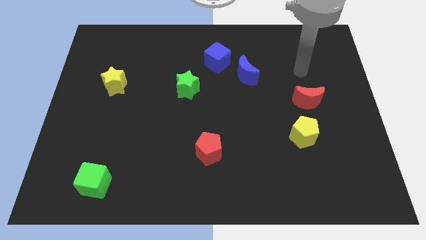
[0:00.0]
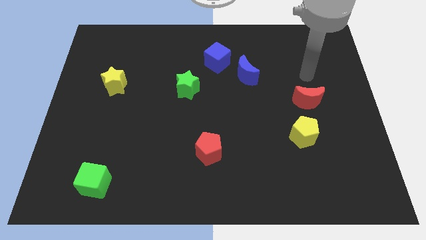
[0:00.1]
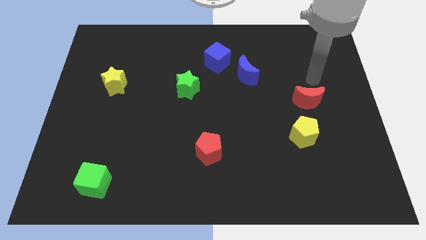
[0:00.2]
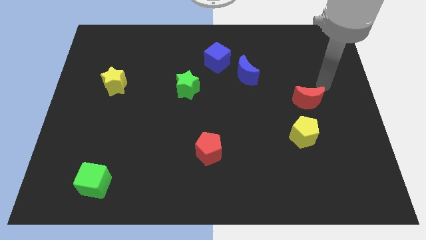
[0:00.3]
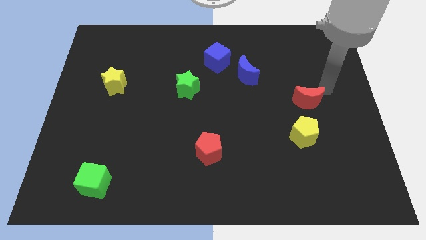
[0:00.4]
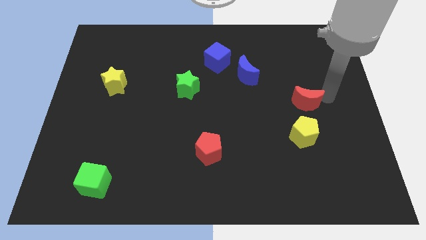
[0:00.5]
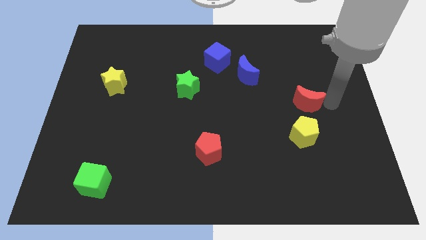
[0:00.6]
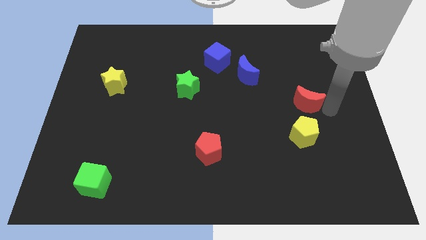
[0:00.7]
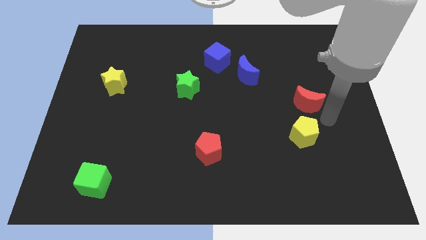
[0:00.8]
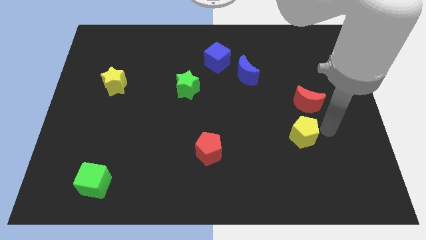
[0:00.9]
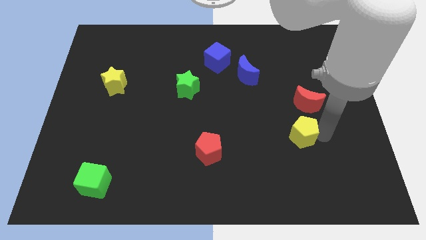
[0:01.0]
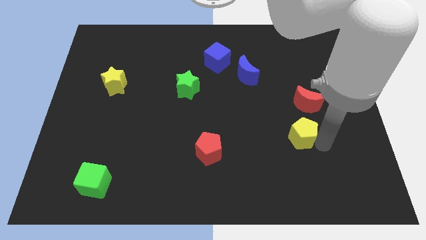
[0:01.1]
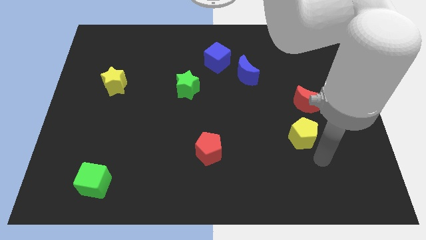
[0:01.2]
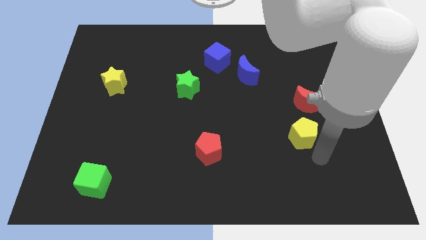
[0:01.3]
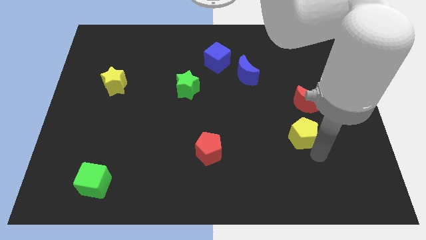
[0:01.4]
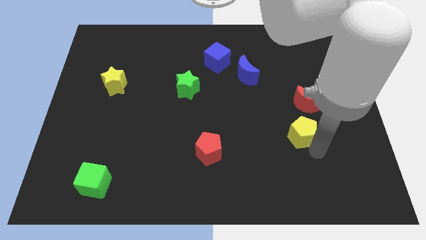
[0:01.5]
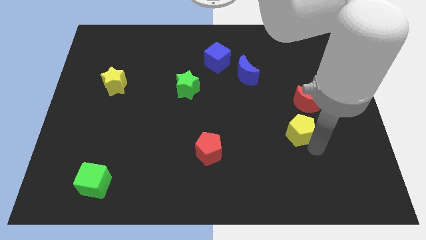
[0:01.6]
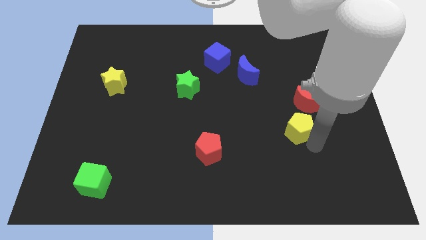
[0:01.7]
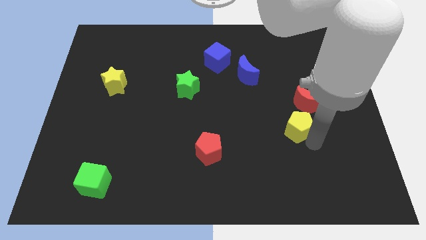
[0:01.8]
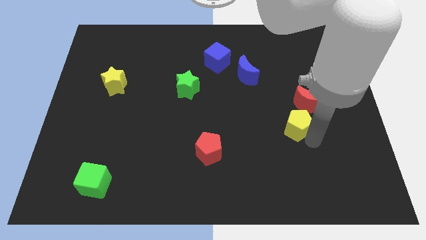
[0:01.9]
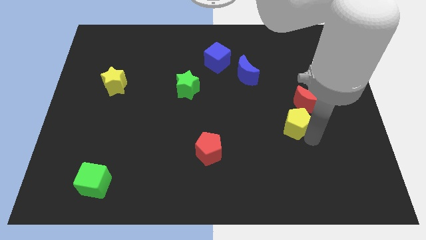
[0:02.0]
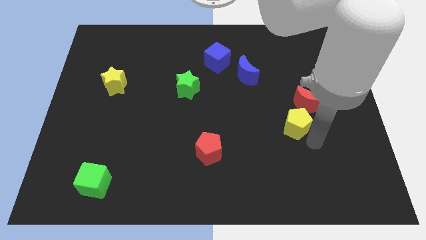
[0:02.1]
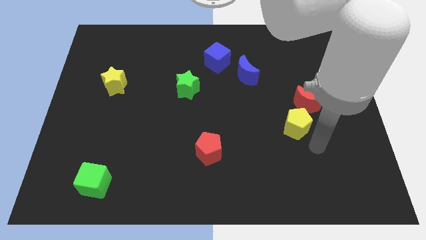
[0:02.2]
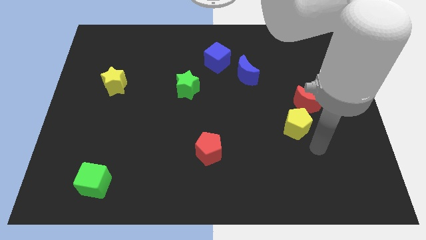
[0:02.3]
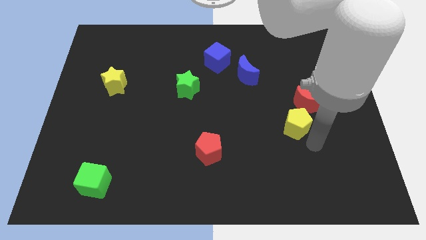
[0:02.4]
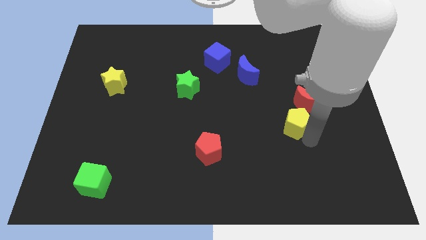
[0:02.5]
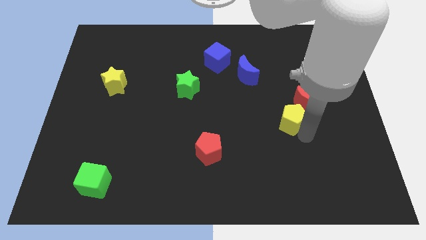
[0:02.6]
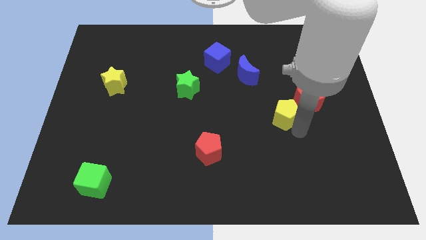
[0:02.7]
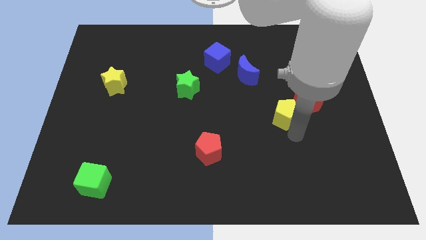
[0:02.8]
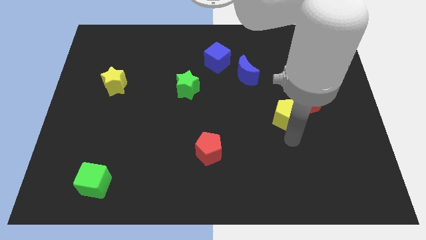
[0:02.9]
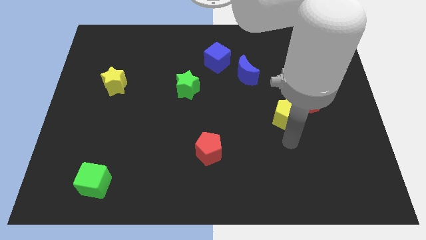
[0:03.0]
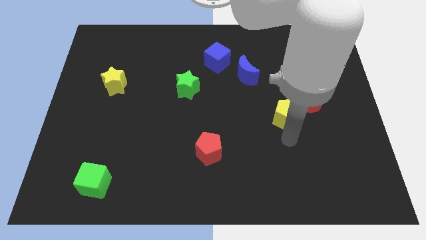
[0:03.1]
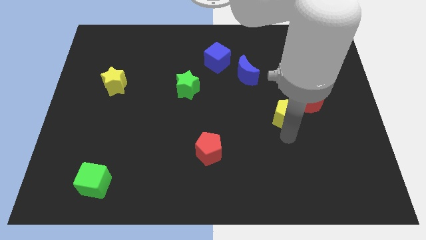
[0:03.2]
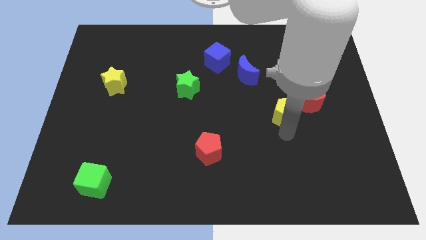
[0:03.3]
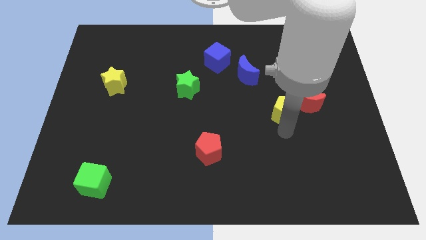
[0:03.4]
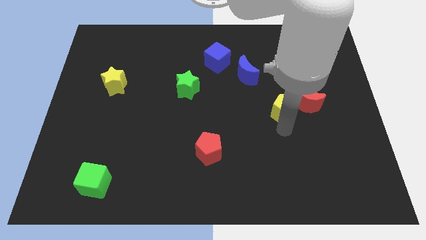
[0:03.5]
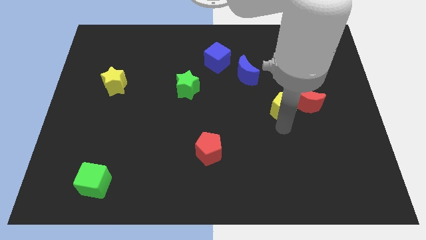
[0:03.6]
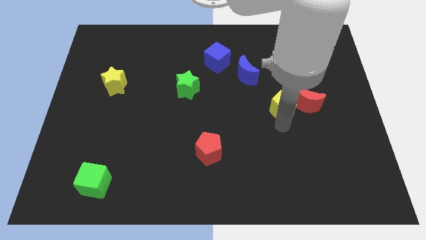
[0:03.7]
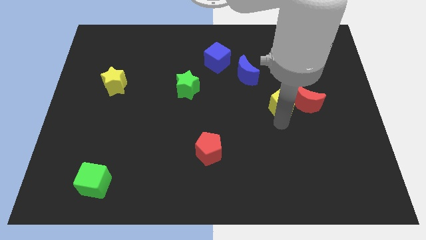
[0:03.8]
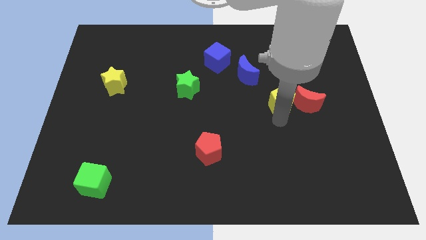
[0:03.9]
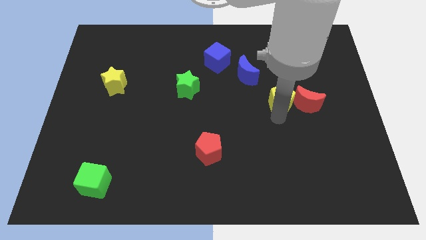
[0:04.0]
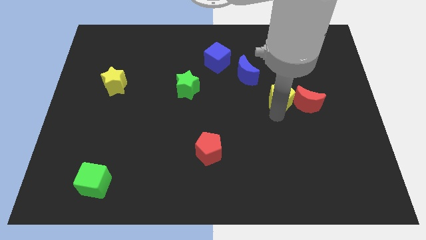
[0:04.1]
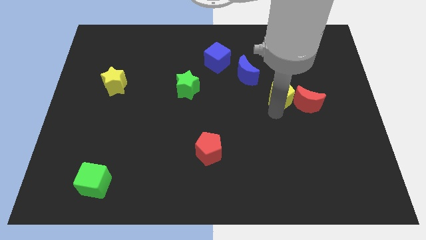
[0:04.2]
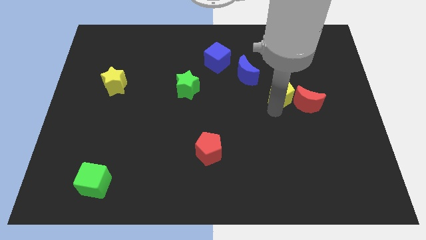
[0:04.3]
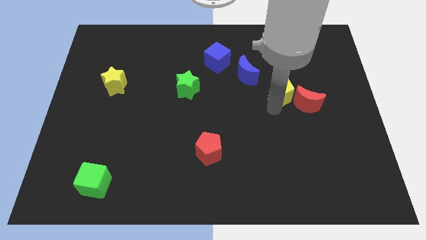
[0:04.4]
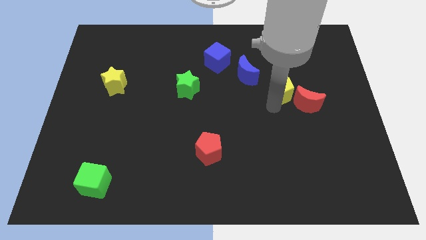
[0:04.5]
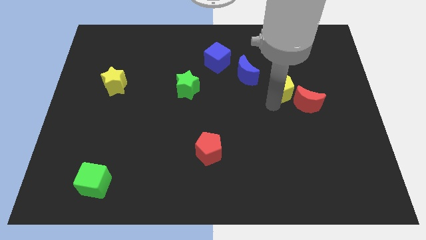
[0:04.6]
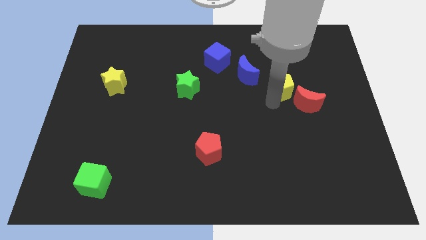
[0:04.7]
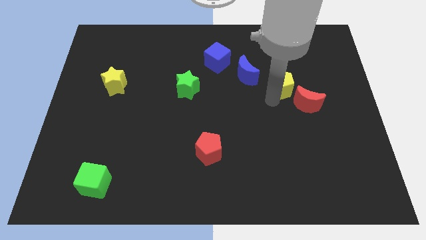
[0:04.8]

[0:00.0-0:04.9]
move the yellow pentagon right of the blue moon

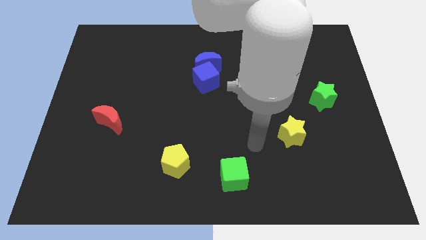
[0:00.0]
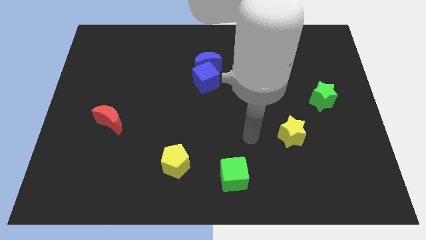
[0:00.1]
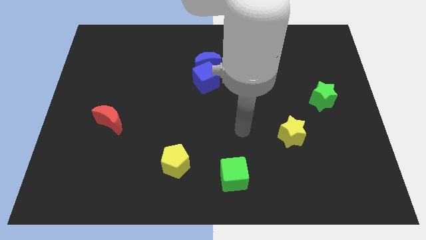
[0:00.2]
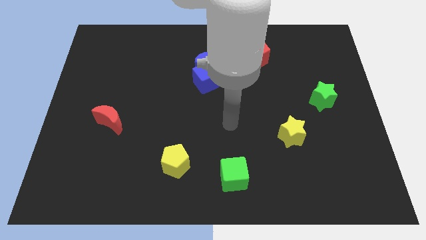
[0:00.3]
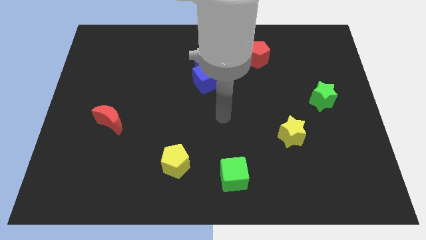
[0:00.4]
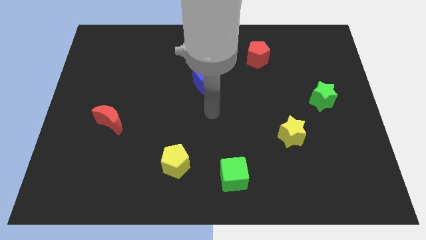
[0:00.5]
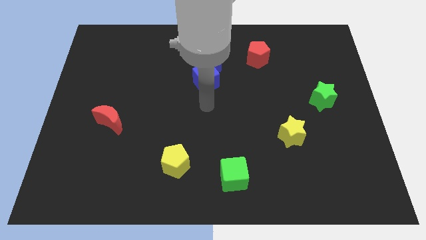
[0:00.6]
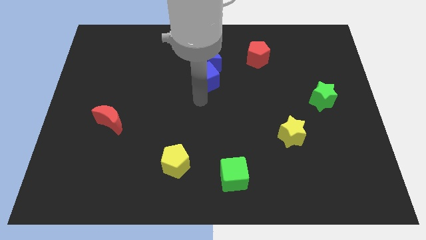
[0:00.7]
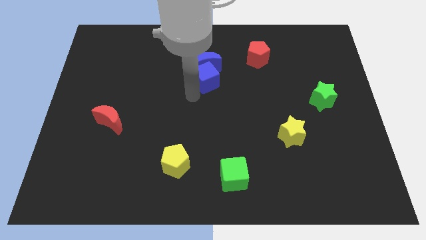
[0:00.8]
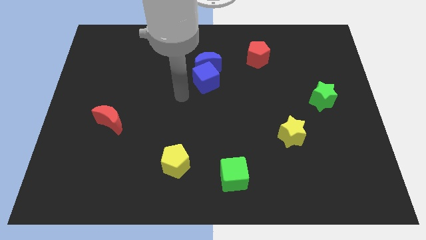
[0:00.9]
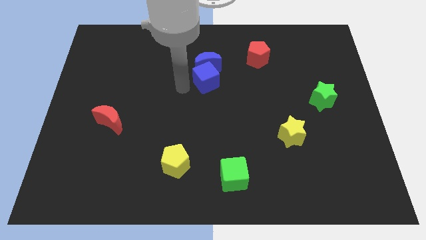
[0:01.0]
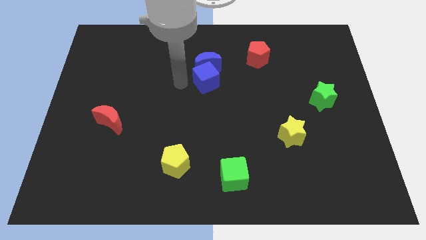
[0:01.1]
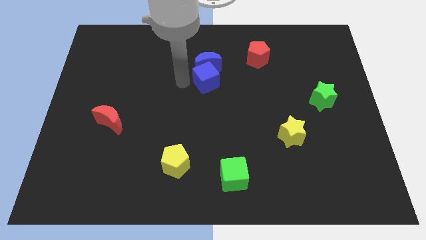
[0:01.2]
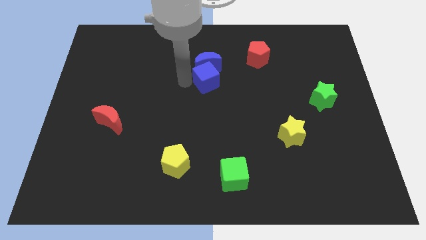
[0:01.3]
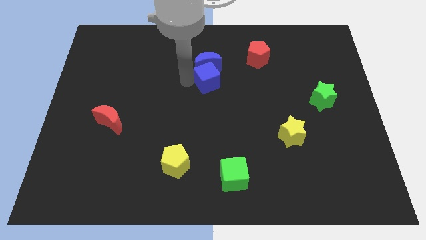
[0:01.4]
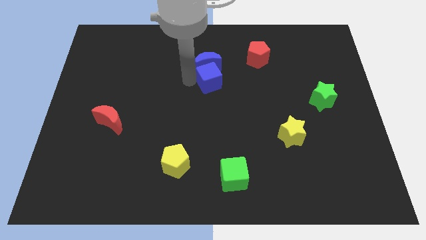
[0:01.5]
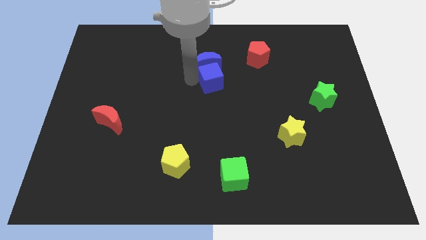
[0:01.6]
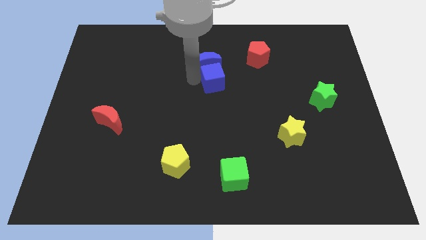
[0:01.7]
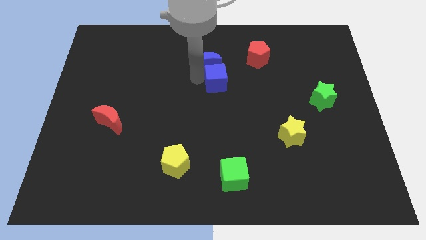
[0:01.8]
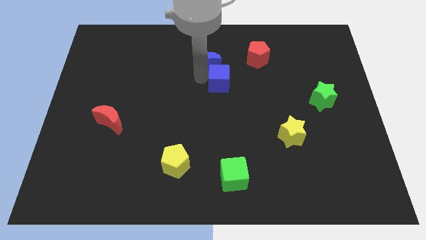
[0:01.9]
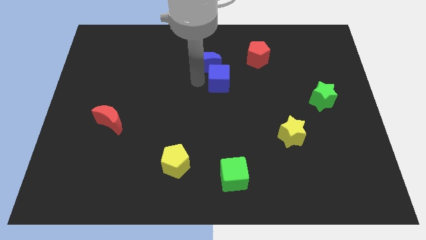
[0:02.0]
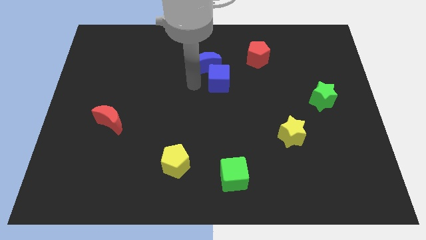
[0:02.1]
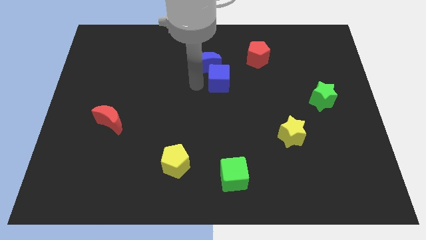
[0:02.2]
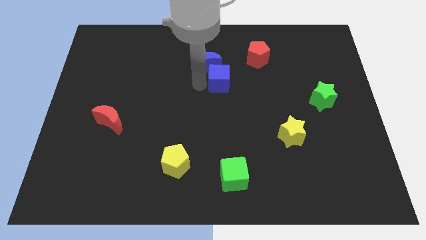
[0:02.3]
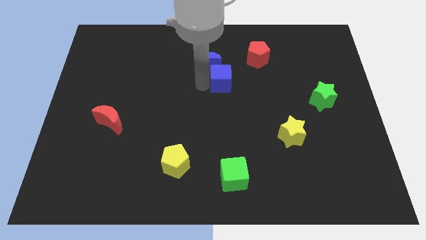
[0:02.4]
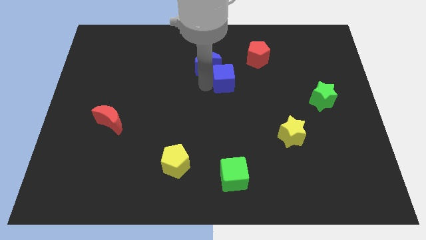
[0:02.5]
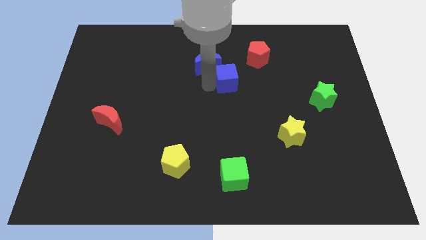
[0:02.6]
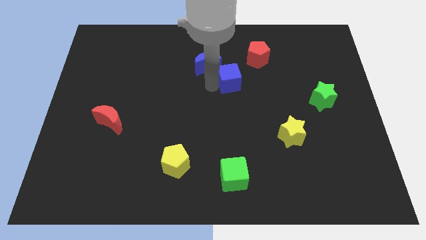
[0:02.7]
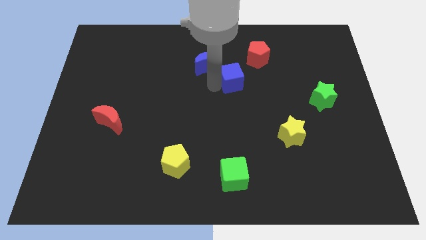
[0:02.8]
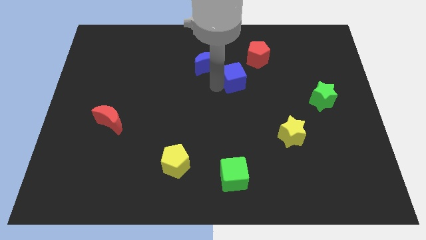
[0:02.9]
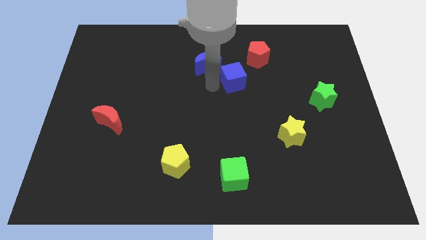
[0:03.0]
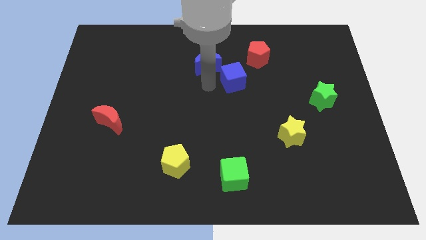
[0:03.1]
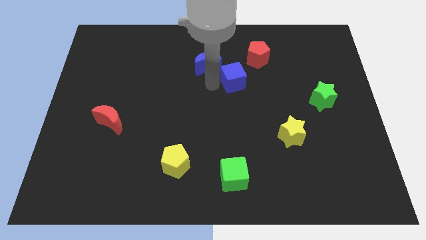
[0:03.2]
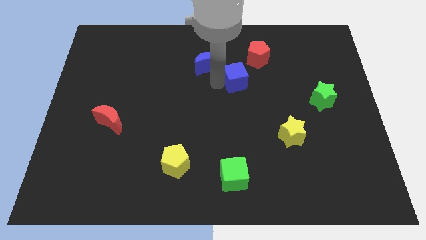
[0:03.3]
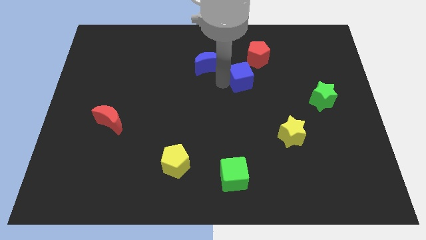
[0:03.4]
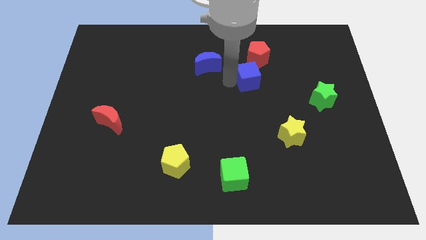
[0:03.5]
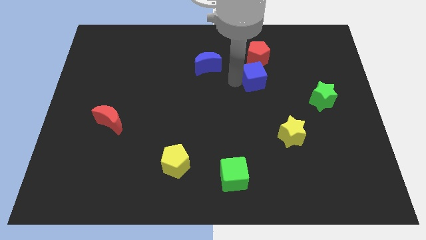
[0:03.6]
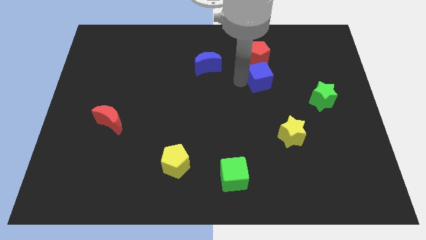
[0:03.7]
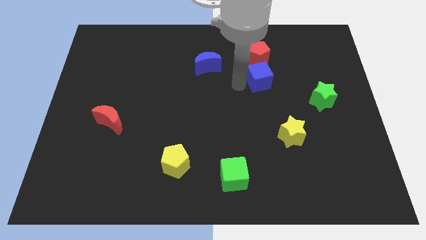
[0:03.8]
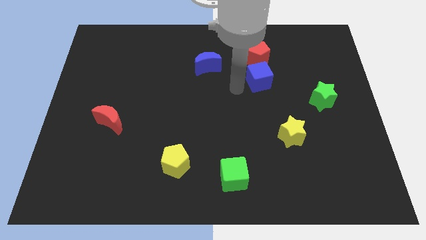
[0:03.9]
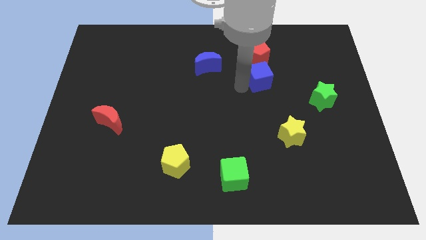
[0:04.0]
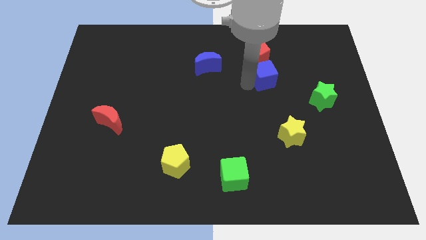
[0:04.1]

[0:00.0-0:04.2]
push the blue cube to the bottom right of the red pentagon
